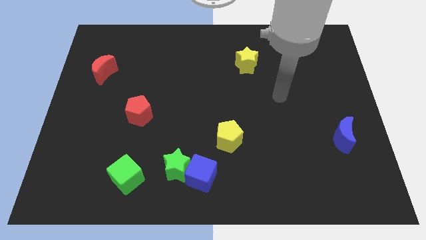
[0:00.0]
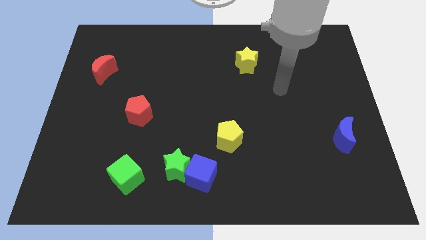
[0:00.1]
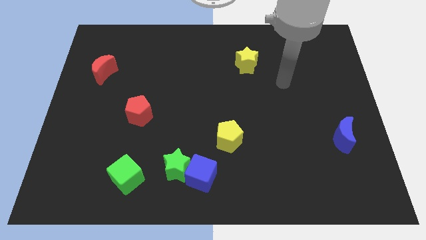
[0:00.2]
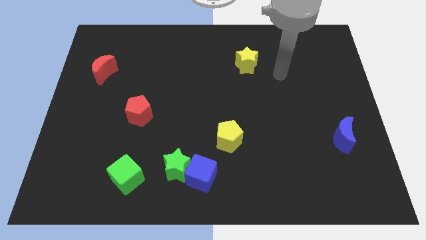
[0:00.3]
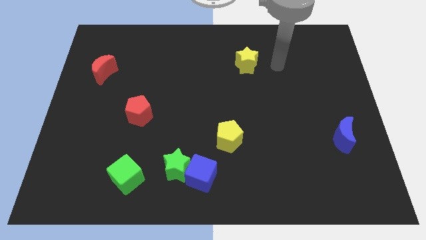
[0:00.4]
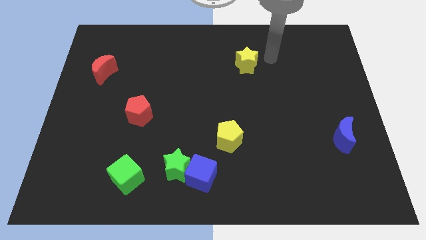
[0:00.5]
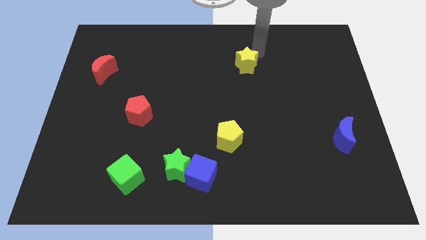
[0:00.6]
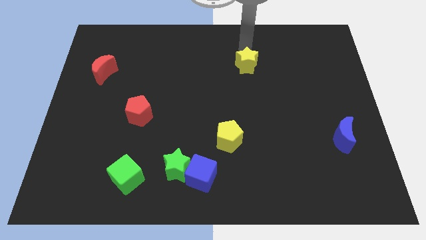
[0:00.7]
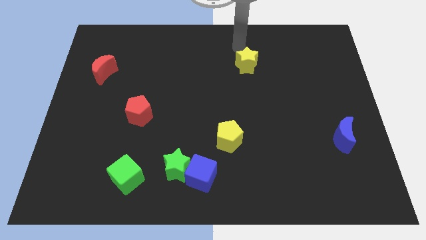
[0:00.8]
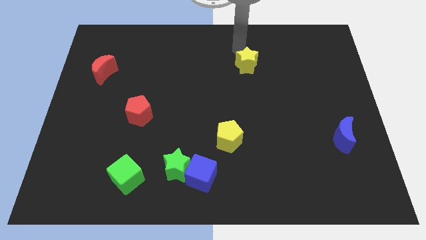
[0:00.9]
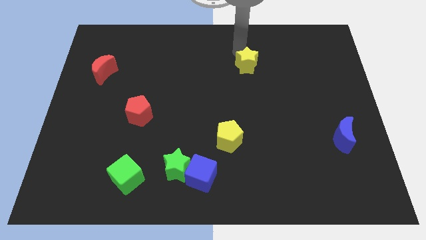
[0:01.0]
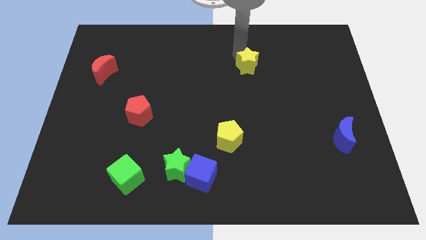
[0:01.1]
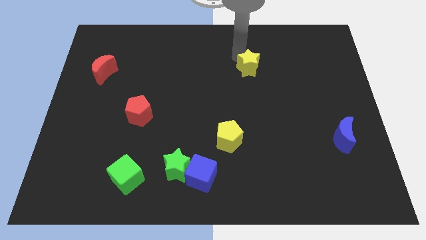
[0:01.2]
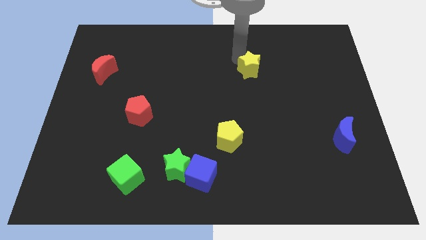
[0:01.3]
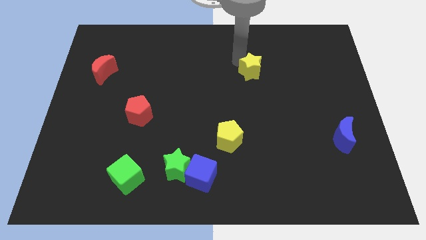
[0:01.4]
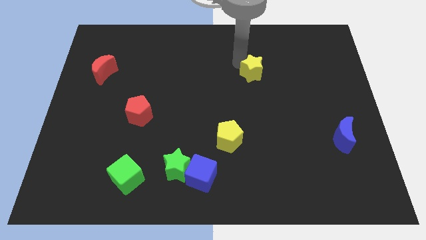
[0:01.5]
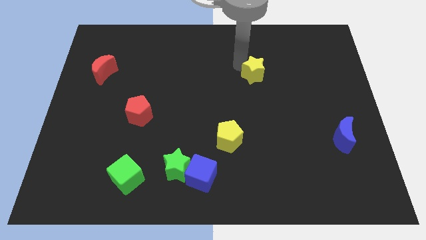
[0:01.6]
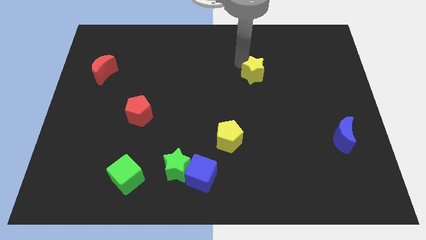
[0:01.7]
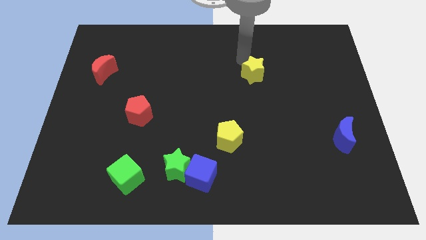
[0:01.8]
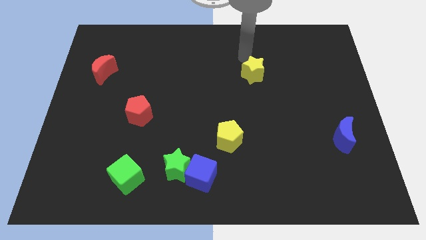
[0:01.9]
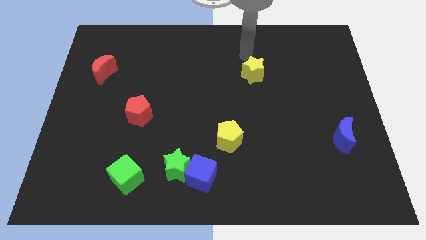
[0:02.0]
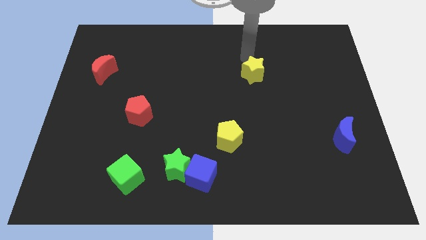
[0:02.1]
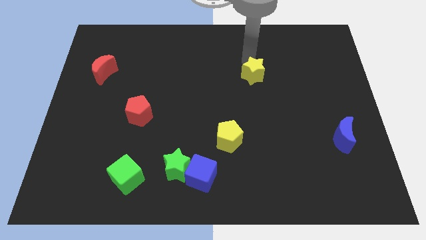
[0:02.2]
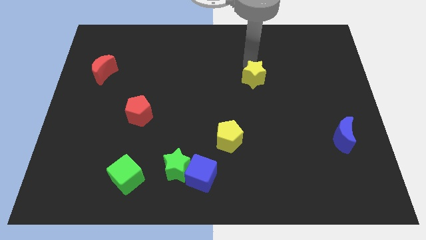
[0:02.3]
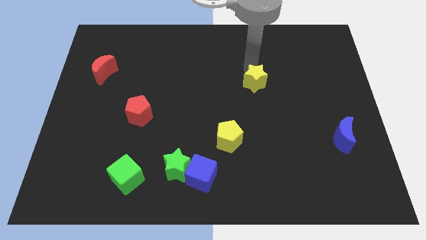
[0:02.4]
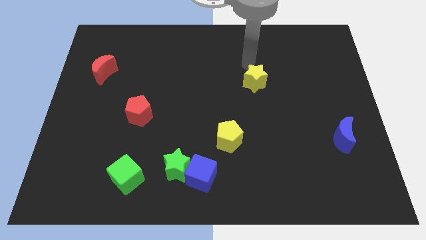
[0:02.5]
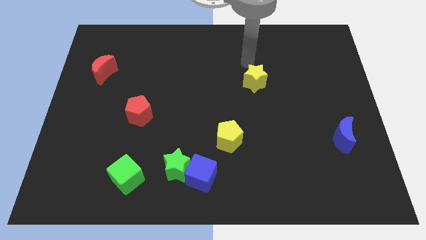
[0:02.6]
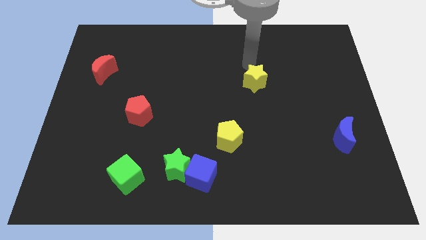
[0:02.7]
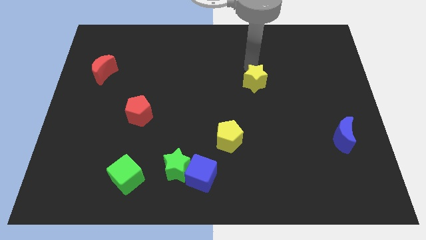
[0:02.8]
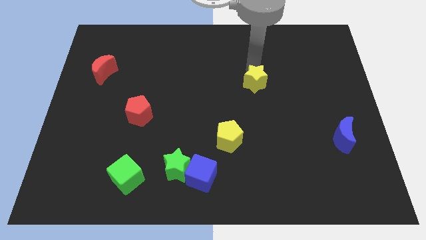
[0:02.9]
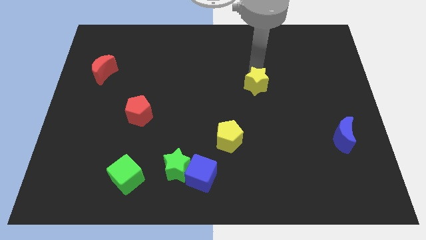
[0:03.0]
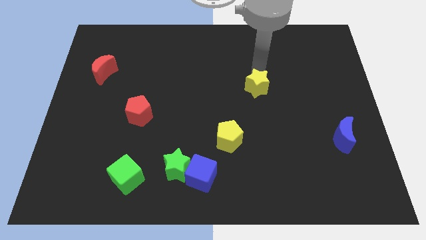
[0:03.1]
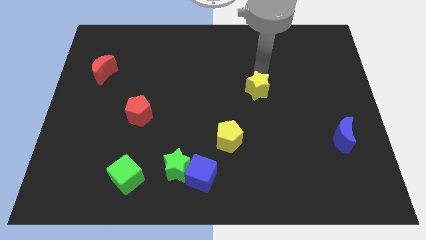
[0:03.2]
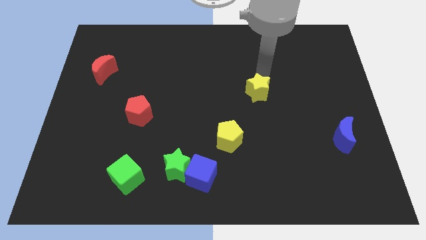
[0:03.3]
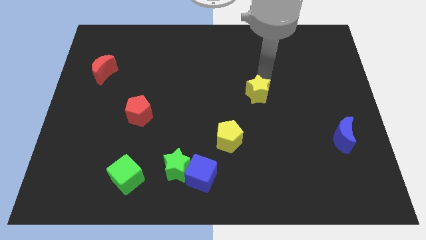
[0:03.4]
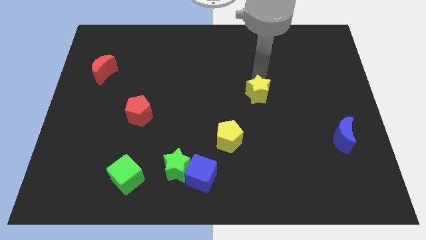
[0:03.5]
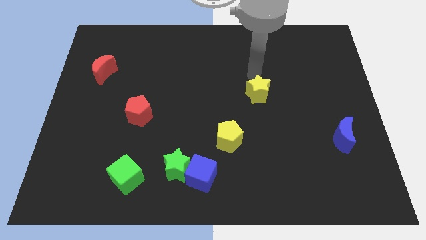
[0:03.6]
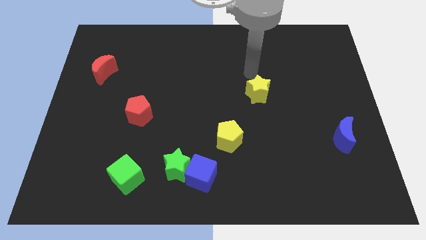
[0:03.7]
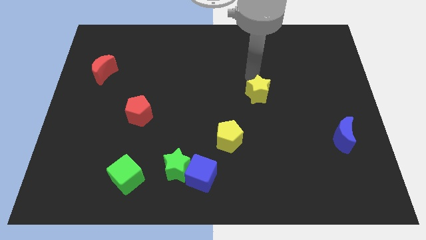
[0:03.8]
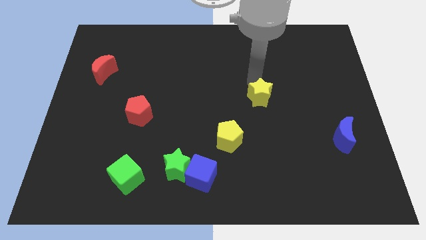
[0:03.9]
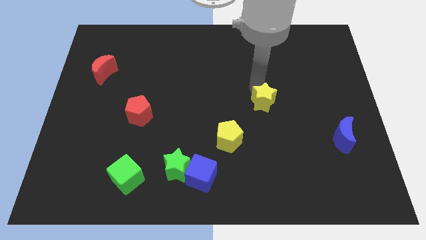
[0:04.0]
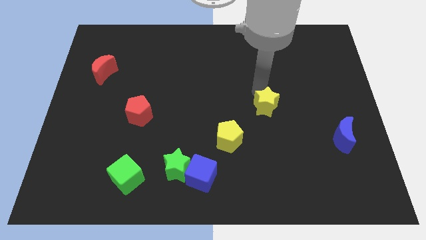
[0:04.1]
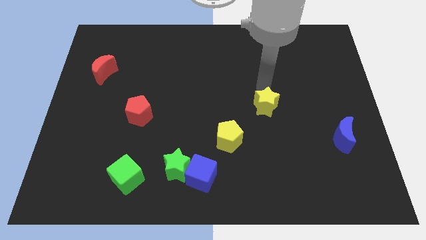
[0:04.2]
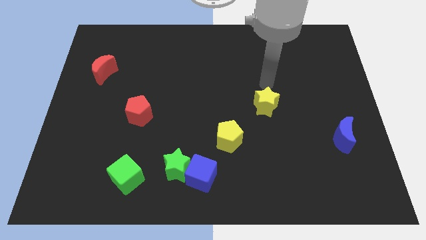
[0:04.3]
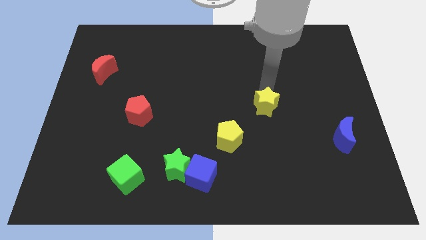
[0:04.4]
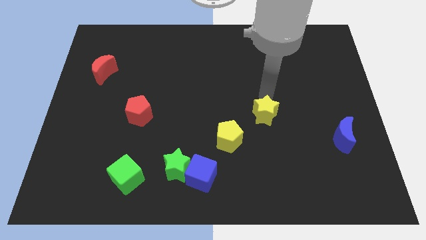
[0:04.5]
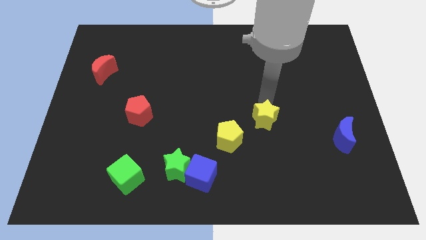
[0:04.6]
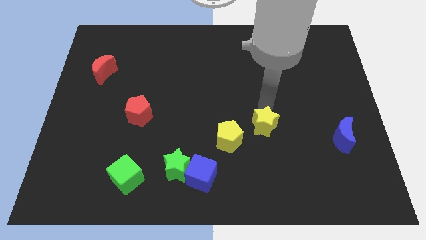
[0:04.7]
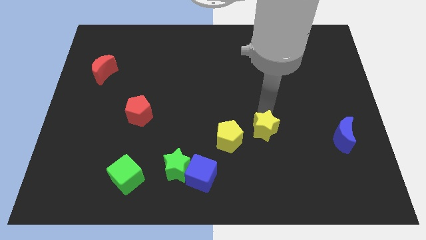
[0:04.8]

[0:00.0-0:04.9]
move the yellow star down

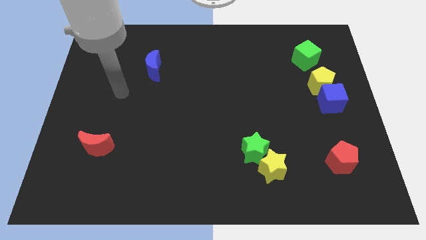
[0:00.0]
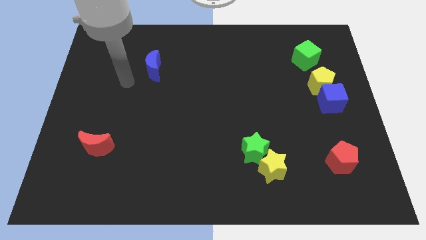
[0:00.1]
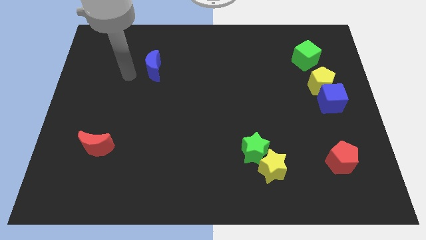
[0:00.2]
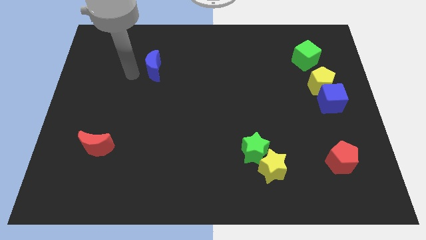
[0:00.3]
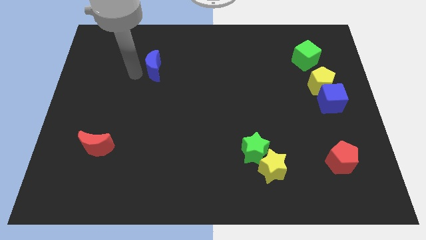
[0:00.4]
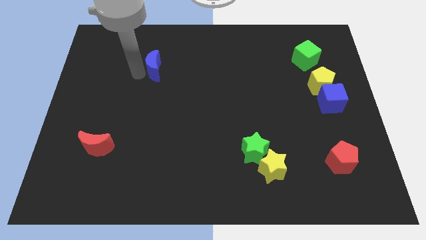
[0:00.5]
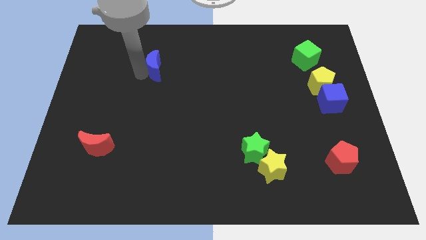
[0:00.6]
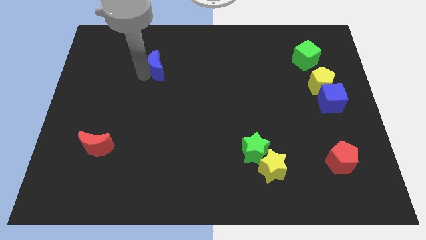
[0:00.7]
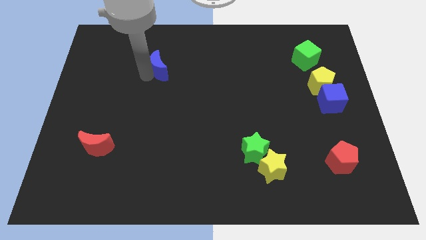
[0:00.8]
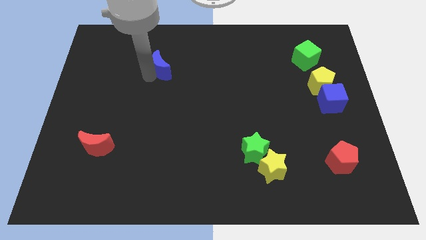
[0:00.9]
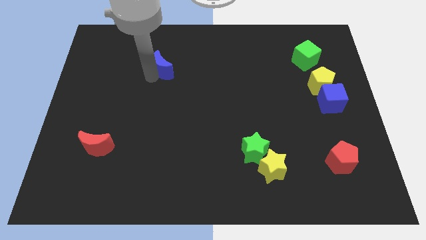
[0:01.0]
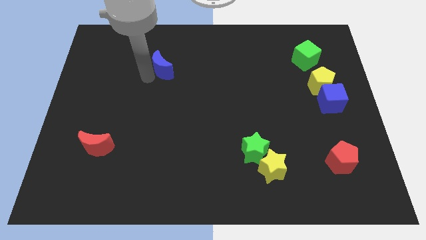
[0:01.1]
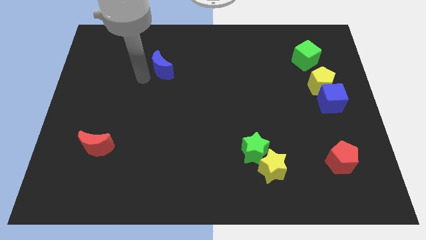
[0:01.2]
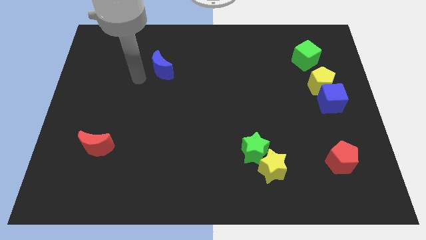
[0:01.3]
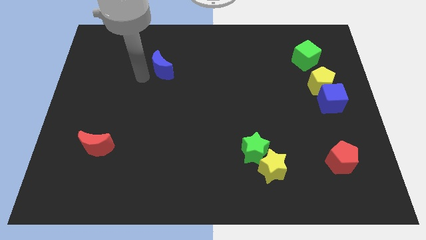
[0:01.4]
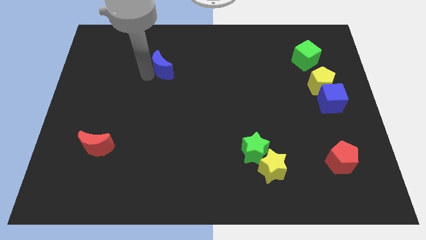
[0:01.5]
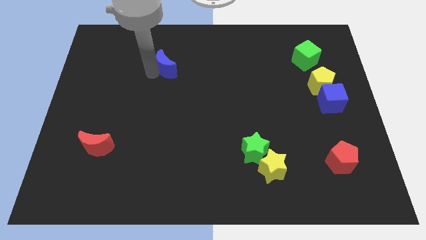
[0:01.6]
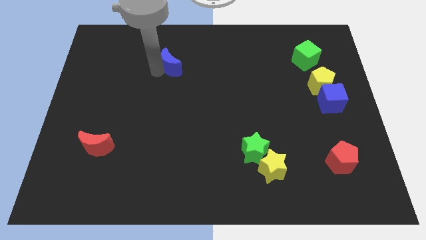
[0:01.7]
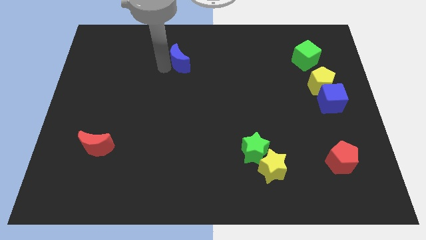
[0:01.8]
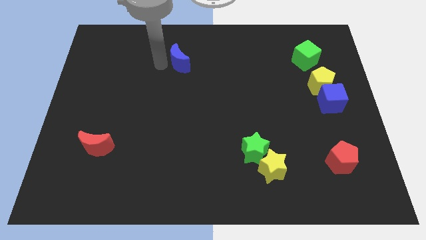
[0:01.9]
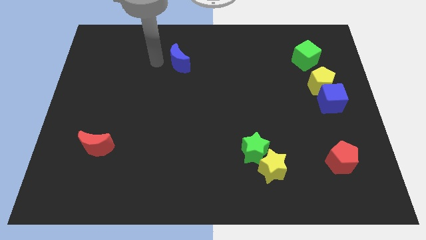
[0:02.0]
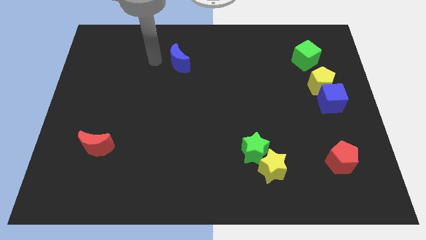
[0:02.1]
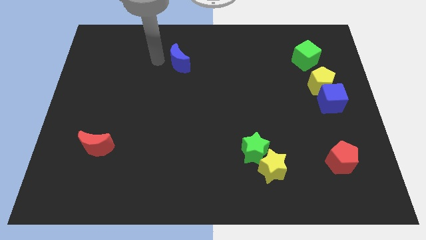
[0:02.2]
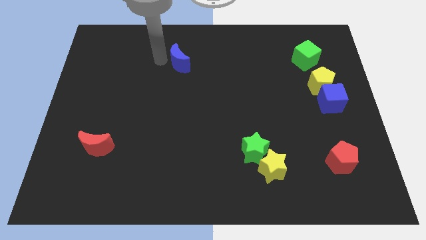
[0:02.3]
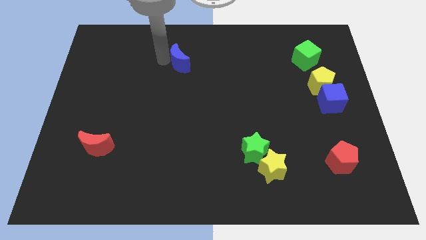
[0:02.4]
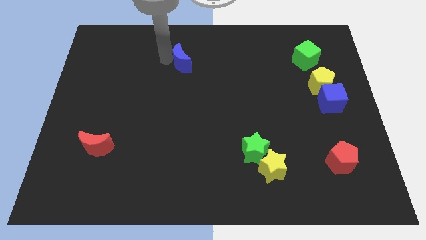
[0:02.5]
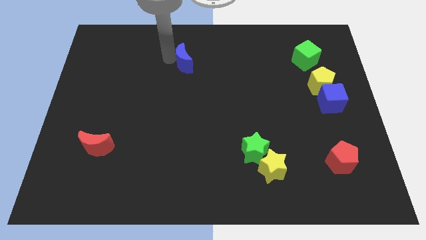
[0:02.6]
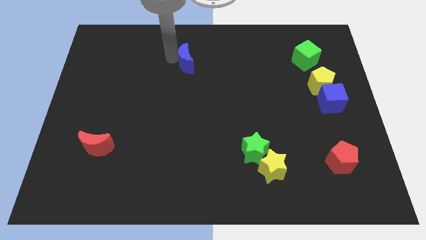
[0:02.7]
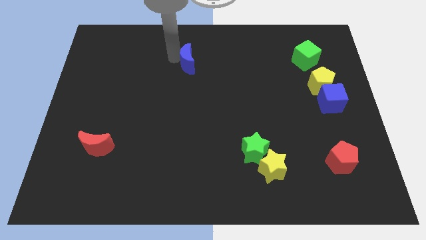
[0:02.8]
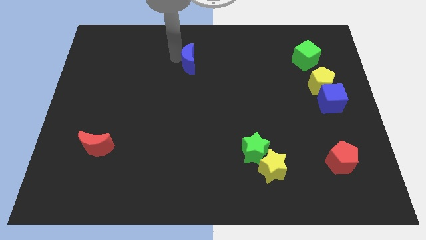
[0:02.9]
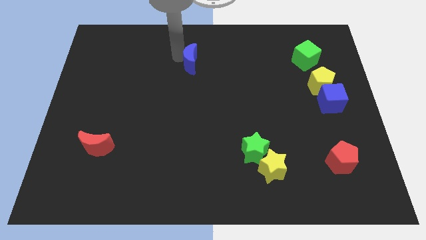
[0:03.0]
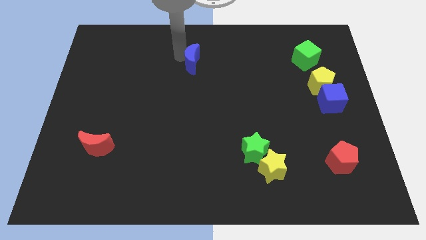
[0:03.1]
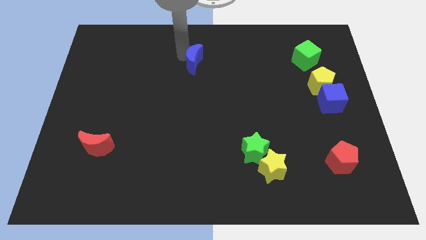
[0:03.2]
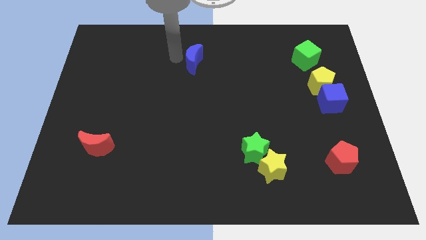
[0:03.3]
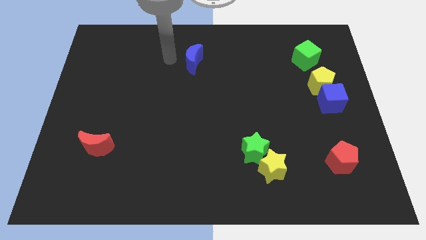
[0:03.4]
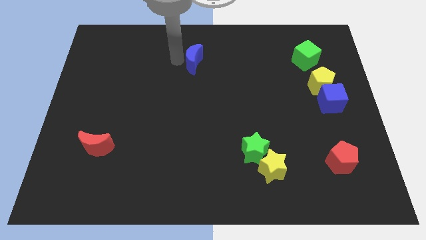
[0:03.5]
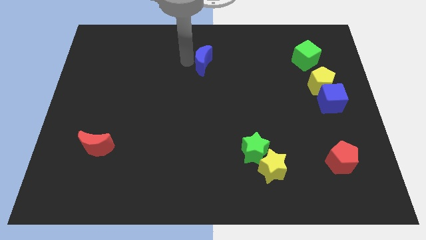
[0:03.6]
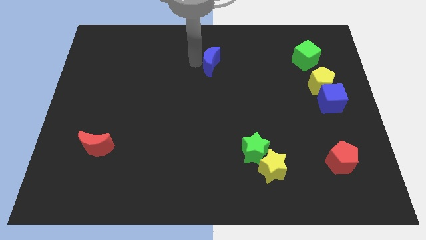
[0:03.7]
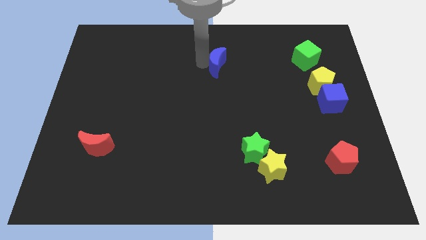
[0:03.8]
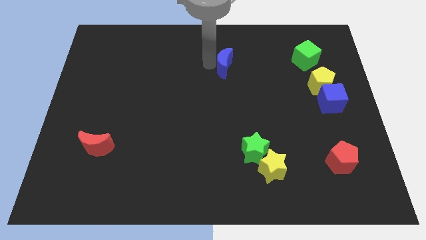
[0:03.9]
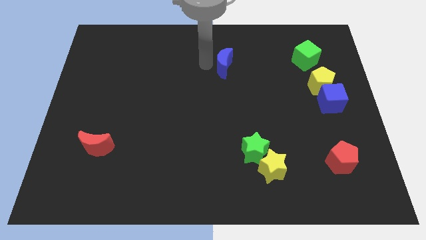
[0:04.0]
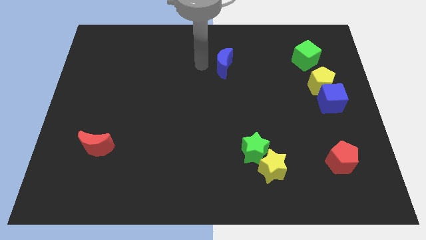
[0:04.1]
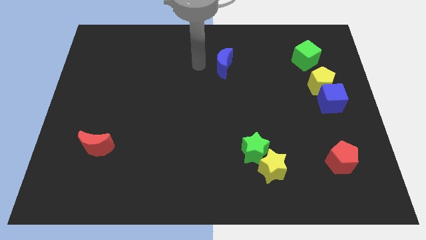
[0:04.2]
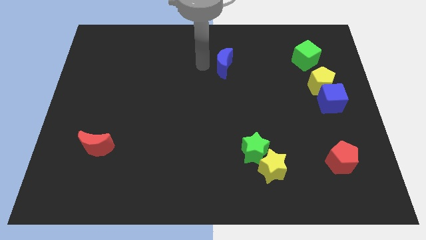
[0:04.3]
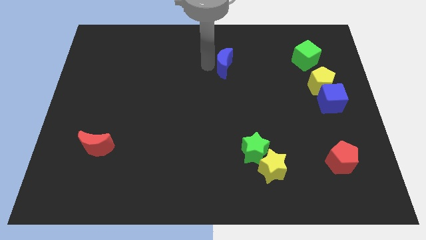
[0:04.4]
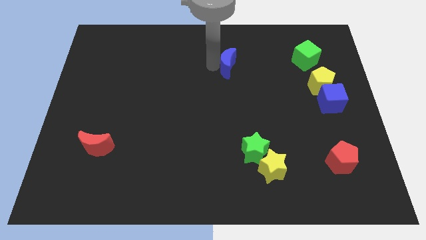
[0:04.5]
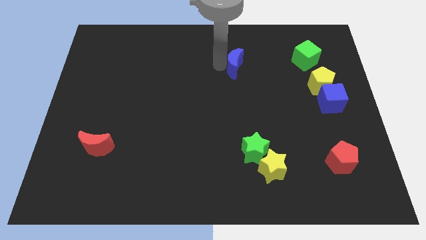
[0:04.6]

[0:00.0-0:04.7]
move the blue moon right
